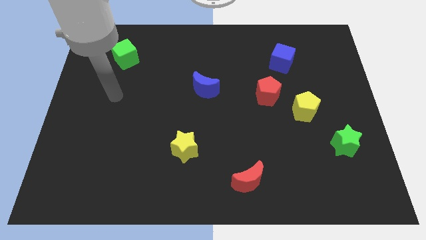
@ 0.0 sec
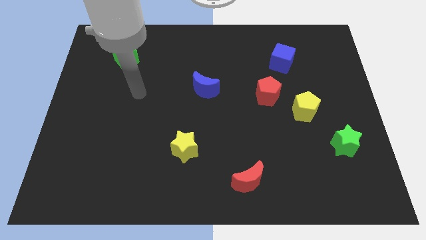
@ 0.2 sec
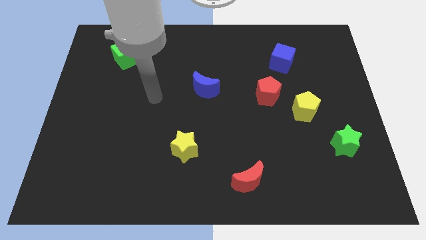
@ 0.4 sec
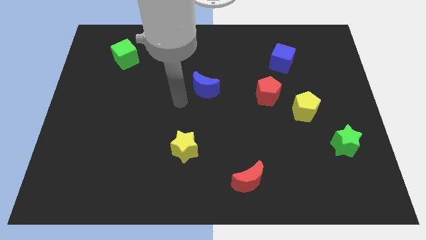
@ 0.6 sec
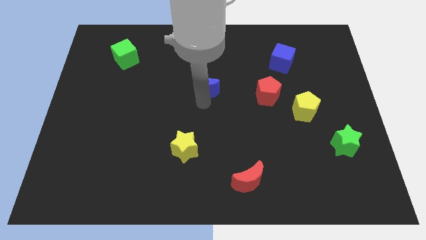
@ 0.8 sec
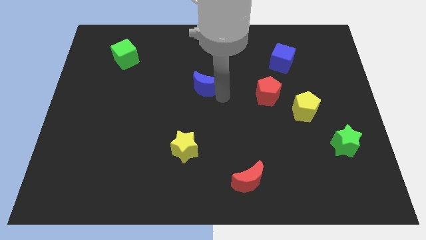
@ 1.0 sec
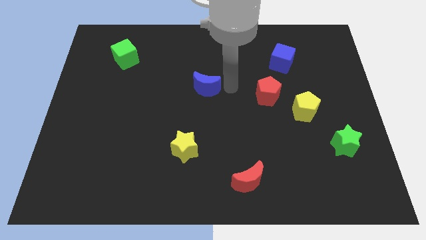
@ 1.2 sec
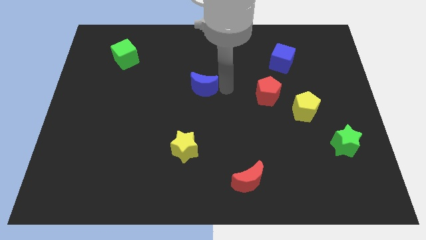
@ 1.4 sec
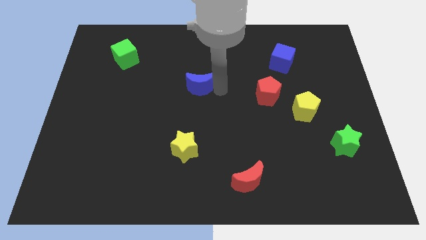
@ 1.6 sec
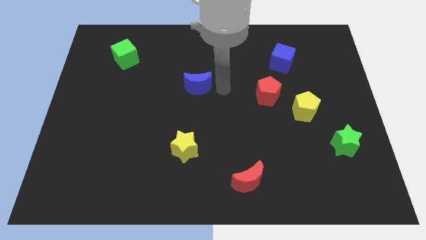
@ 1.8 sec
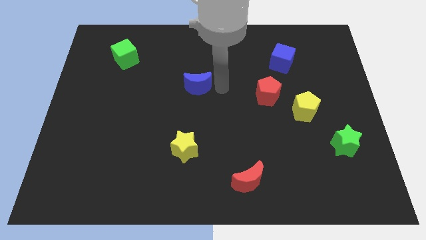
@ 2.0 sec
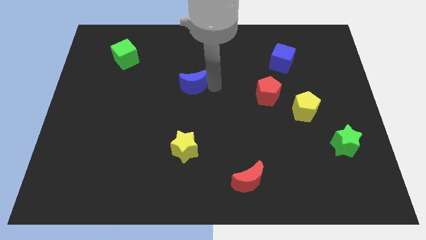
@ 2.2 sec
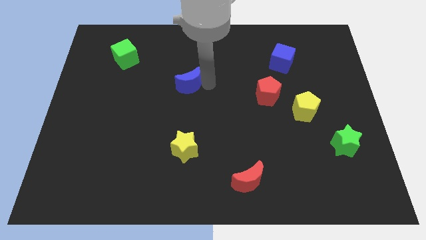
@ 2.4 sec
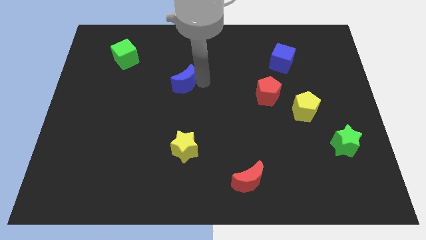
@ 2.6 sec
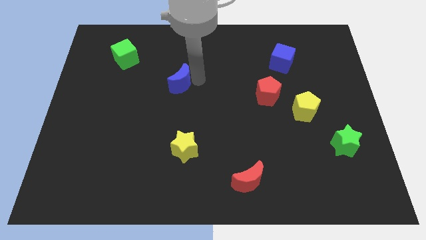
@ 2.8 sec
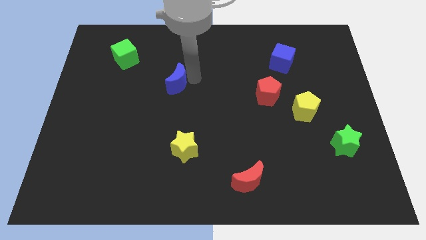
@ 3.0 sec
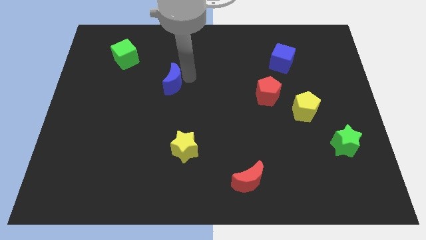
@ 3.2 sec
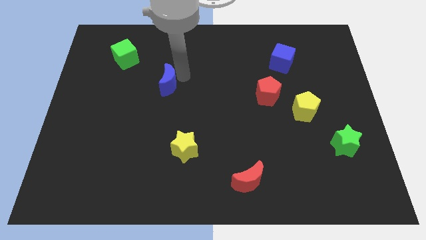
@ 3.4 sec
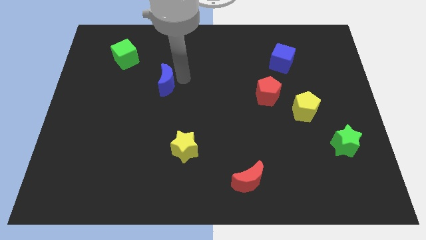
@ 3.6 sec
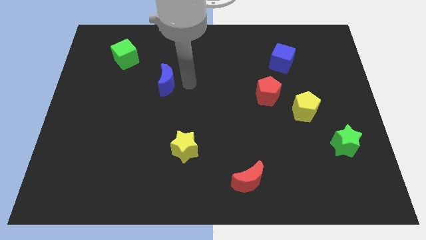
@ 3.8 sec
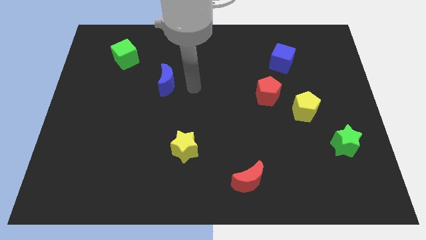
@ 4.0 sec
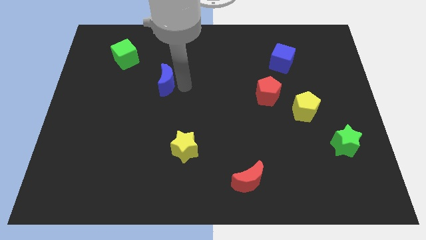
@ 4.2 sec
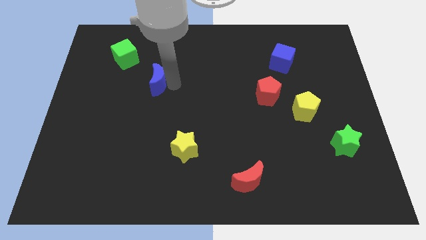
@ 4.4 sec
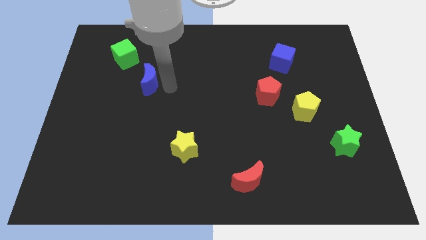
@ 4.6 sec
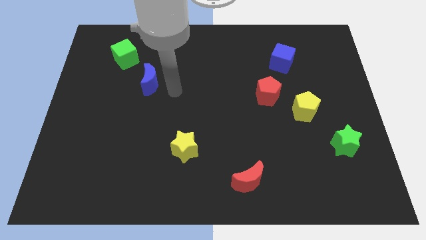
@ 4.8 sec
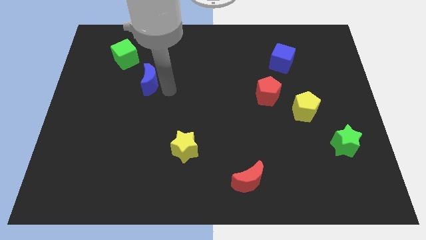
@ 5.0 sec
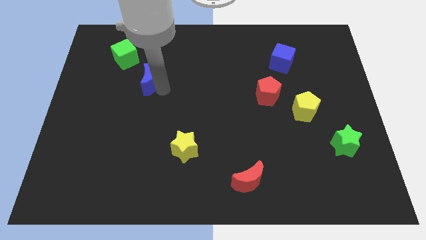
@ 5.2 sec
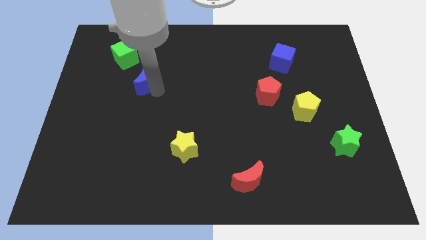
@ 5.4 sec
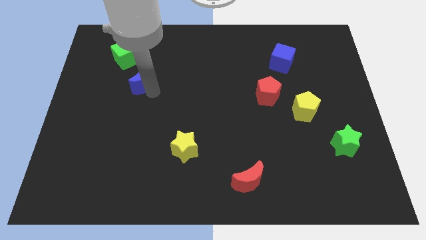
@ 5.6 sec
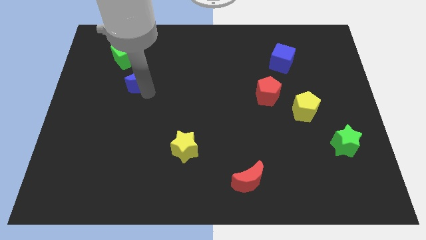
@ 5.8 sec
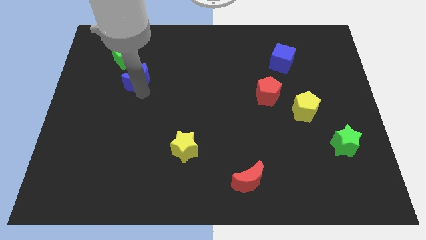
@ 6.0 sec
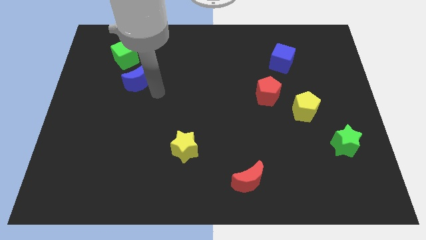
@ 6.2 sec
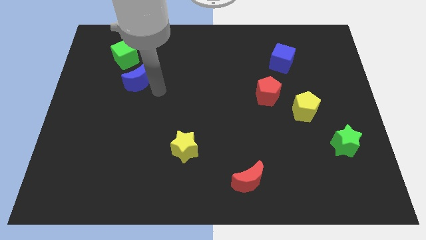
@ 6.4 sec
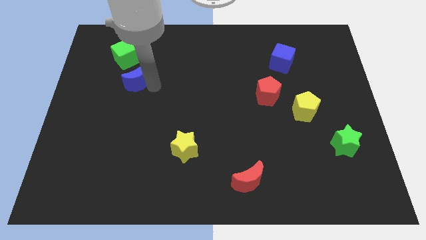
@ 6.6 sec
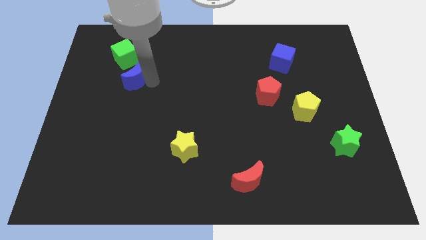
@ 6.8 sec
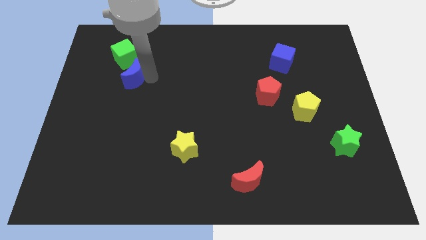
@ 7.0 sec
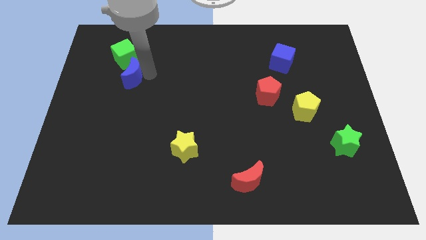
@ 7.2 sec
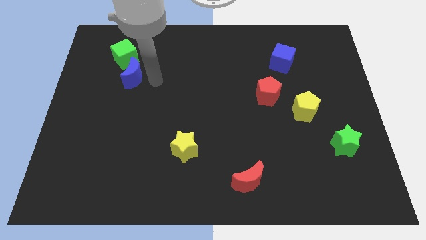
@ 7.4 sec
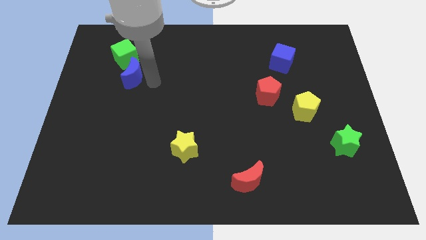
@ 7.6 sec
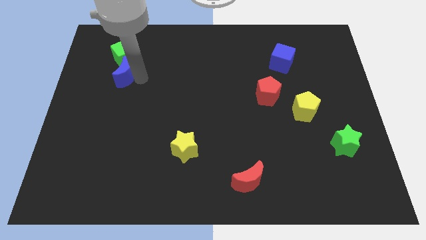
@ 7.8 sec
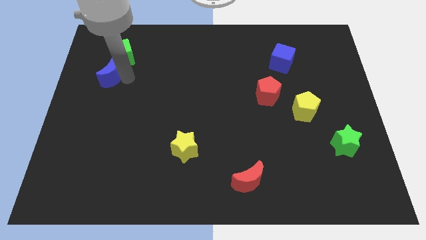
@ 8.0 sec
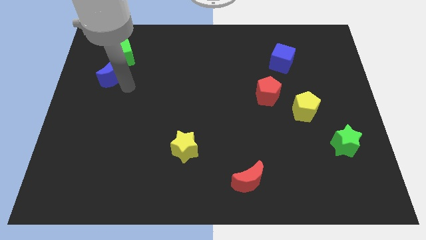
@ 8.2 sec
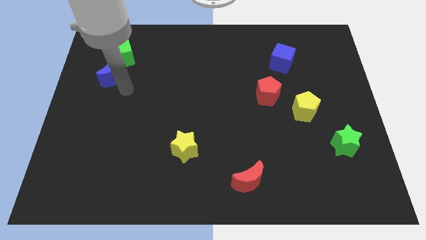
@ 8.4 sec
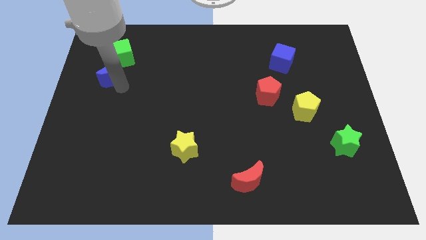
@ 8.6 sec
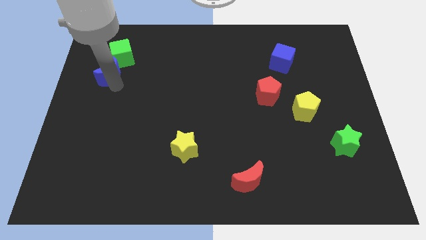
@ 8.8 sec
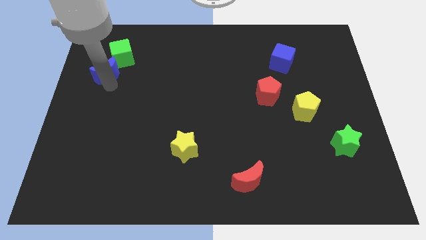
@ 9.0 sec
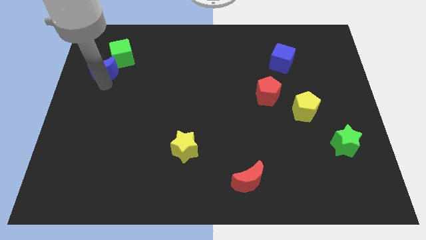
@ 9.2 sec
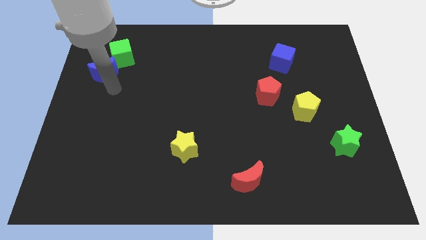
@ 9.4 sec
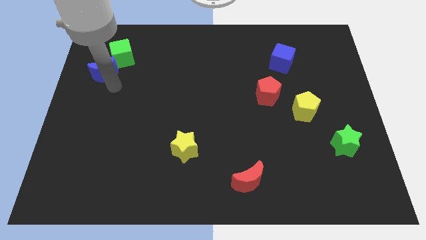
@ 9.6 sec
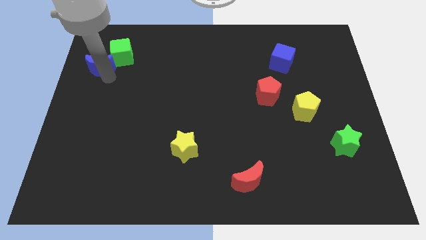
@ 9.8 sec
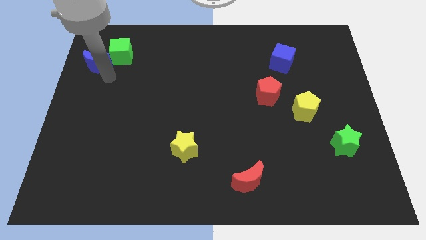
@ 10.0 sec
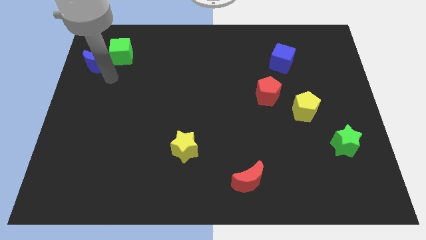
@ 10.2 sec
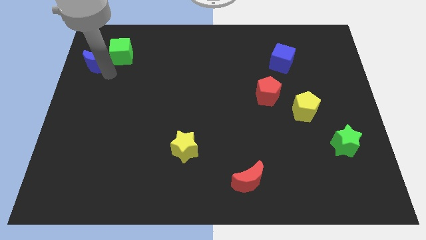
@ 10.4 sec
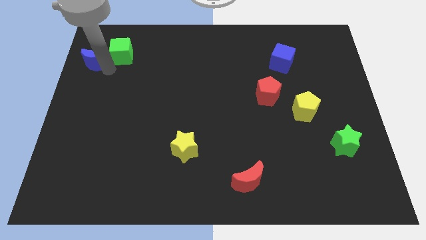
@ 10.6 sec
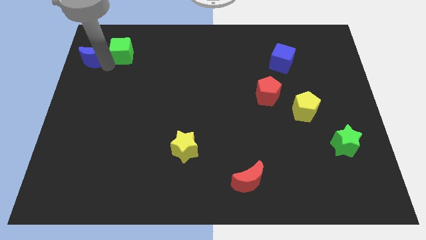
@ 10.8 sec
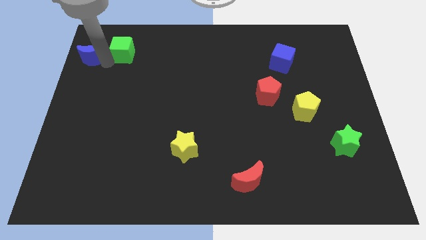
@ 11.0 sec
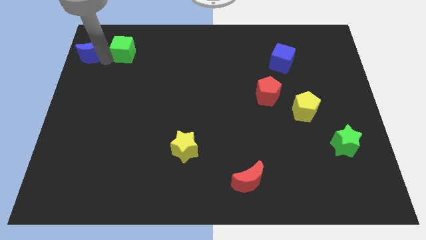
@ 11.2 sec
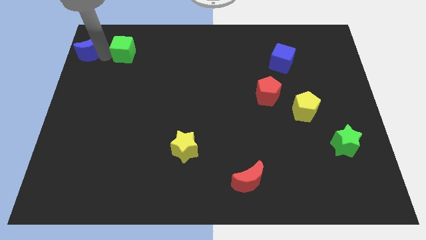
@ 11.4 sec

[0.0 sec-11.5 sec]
push the blue moon to the top left corner

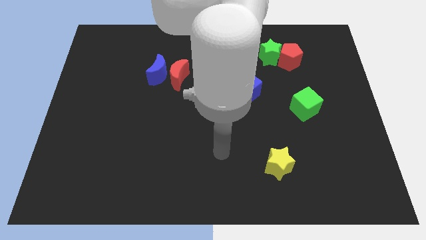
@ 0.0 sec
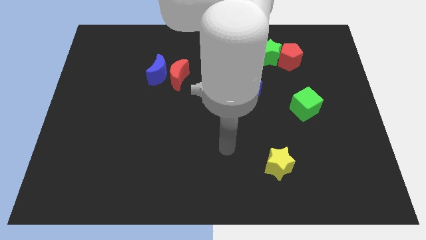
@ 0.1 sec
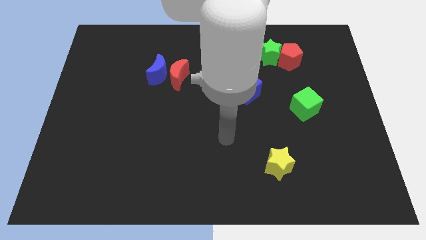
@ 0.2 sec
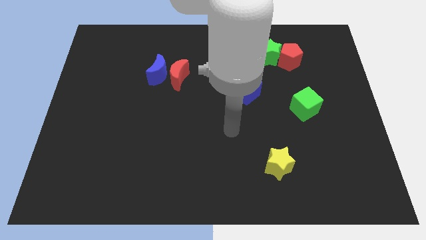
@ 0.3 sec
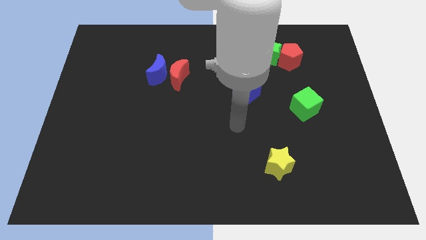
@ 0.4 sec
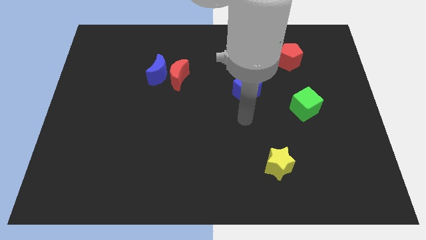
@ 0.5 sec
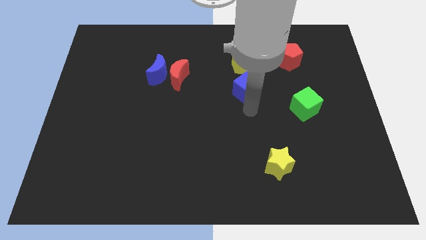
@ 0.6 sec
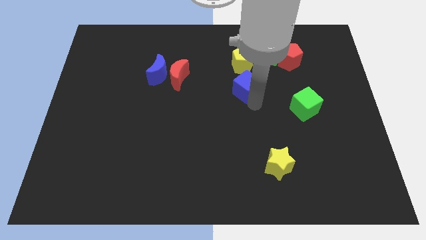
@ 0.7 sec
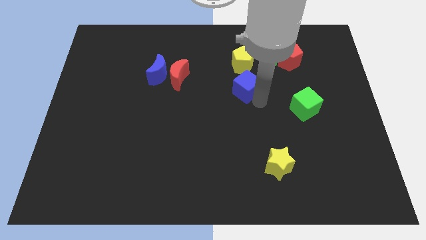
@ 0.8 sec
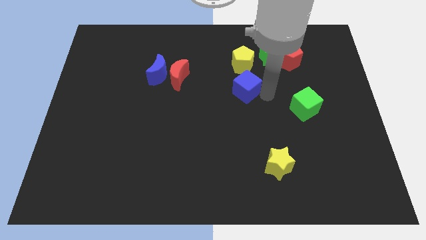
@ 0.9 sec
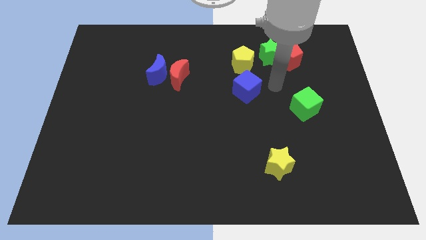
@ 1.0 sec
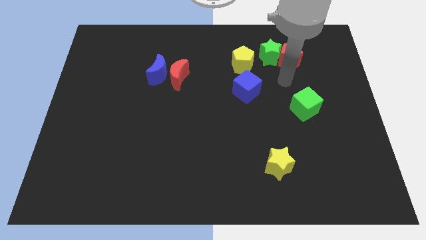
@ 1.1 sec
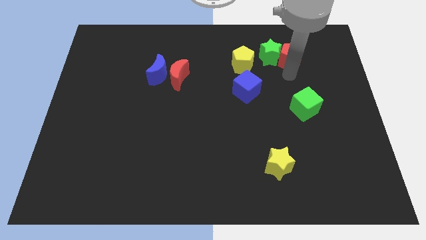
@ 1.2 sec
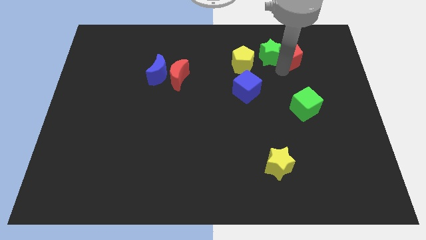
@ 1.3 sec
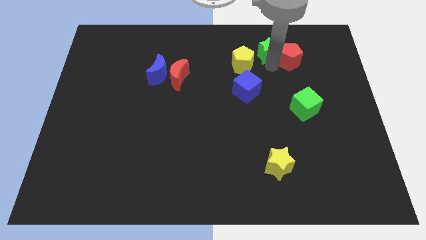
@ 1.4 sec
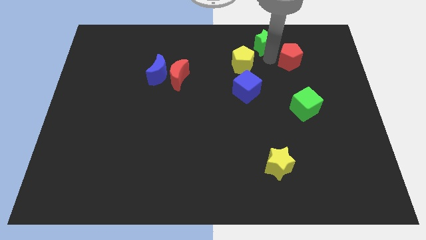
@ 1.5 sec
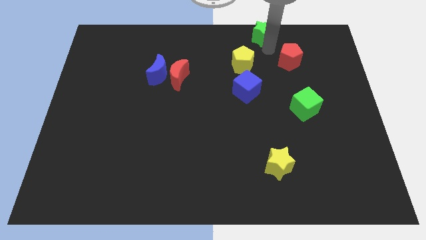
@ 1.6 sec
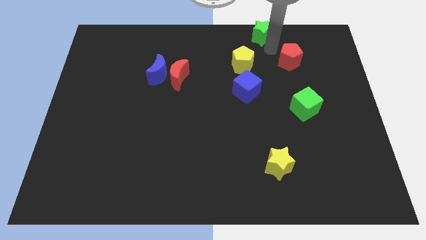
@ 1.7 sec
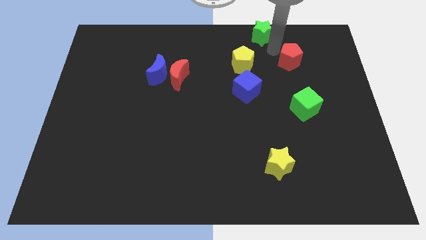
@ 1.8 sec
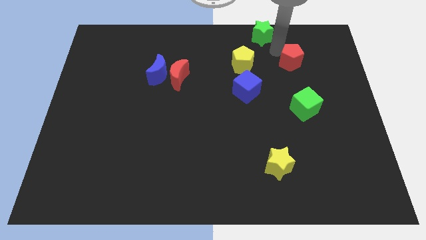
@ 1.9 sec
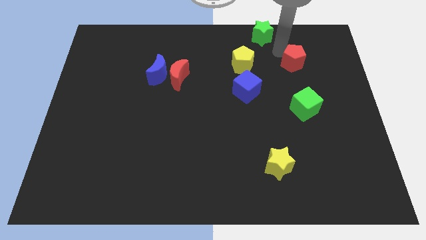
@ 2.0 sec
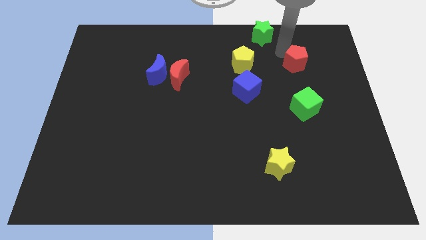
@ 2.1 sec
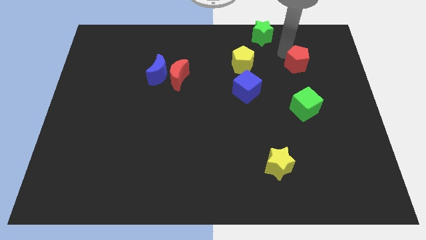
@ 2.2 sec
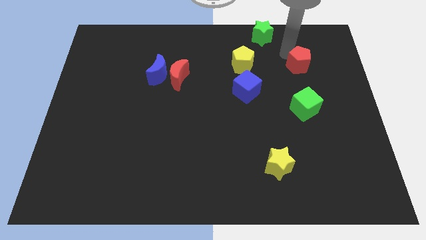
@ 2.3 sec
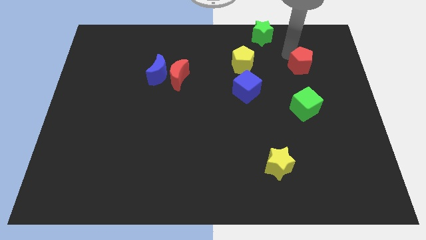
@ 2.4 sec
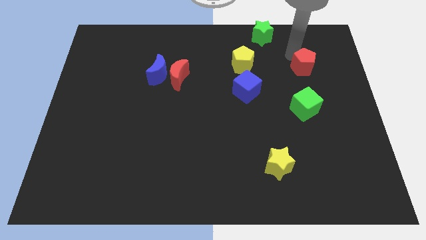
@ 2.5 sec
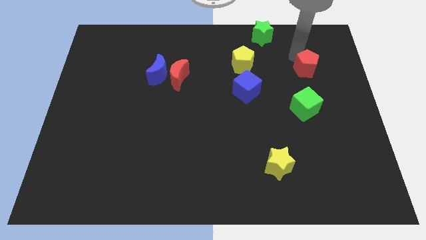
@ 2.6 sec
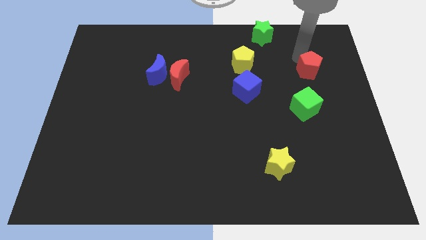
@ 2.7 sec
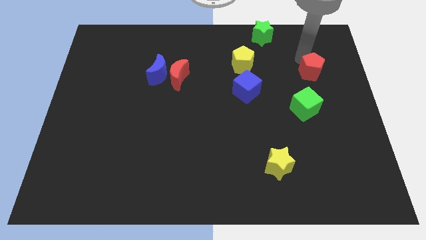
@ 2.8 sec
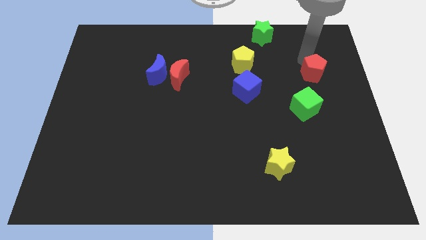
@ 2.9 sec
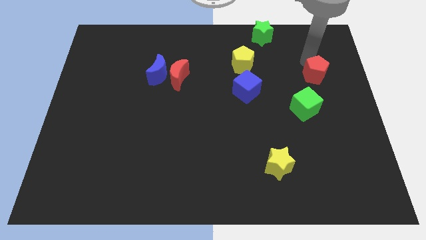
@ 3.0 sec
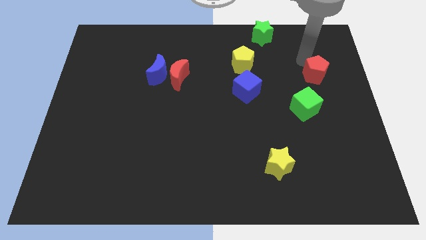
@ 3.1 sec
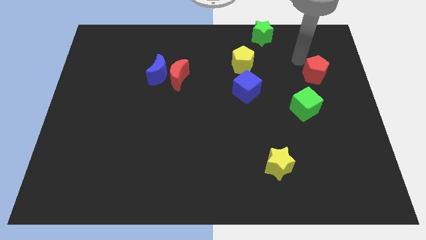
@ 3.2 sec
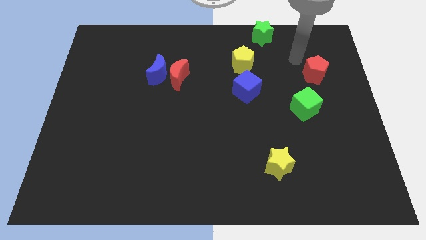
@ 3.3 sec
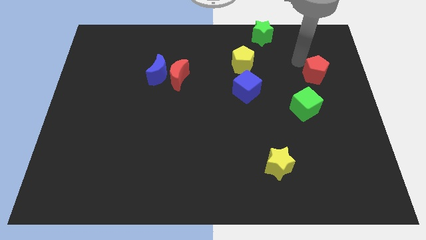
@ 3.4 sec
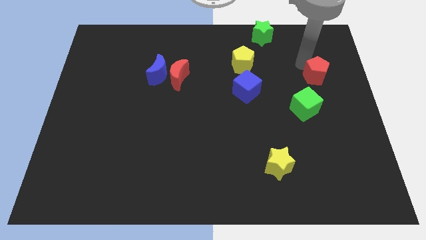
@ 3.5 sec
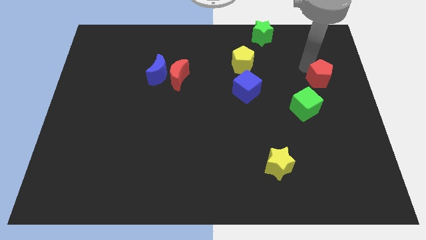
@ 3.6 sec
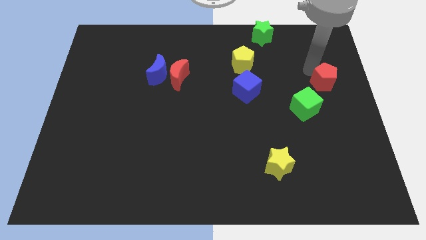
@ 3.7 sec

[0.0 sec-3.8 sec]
move the red pentagon to the right side of the board
